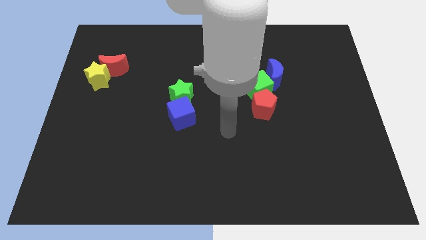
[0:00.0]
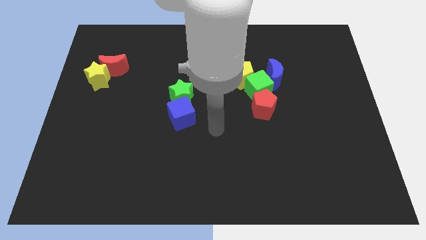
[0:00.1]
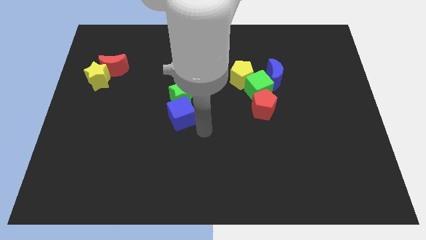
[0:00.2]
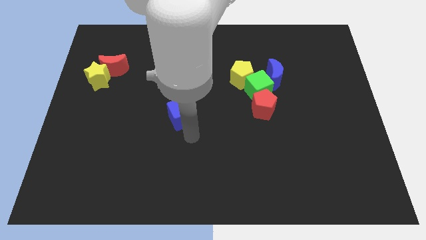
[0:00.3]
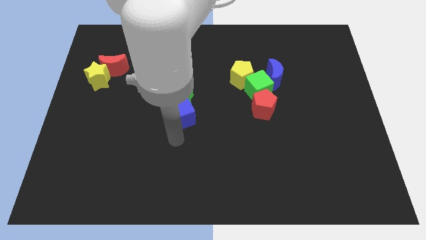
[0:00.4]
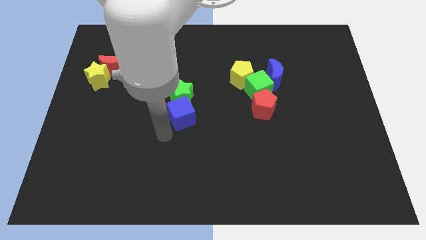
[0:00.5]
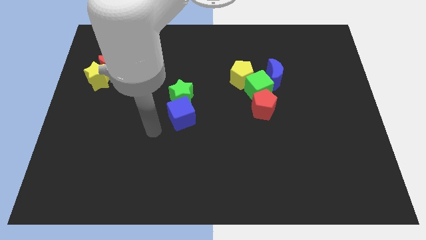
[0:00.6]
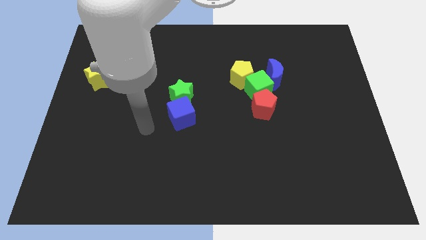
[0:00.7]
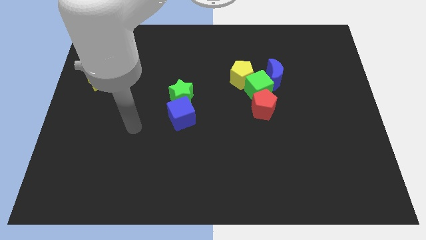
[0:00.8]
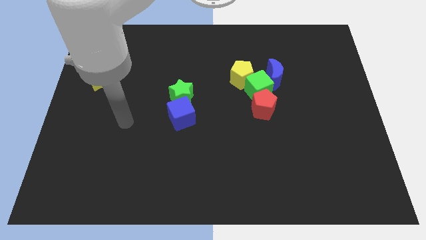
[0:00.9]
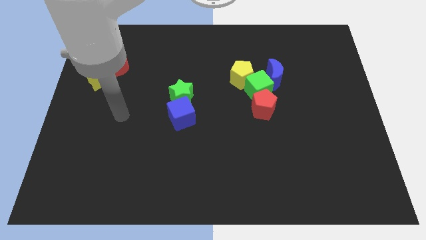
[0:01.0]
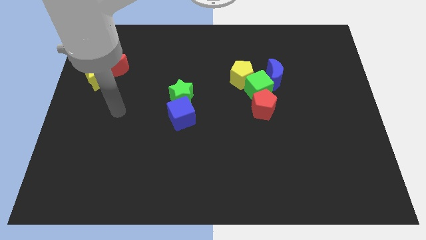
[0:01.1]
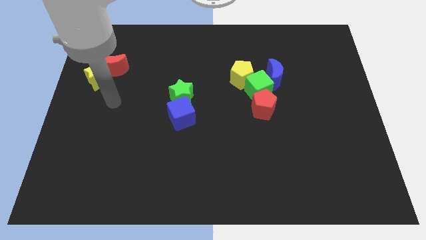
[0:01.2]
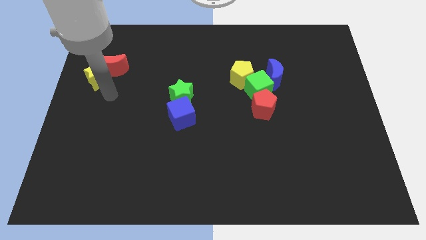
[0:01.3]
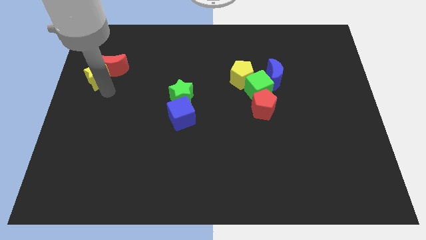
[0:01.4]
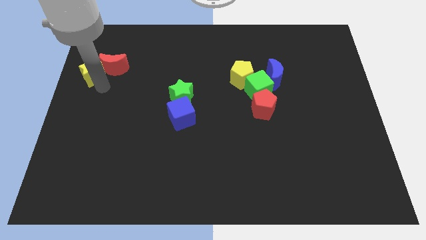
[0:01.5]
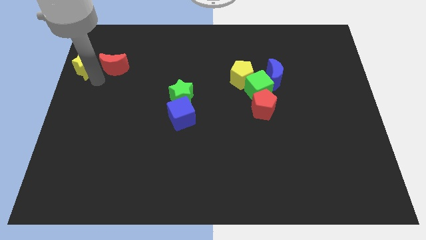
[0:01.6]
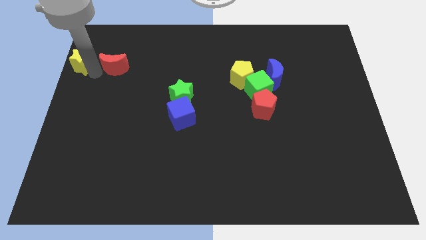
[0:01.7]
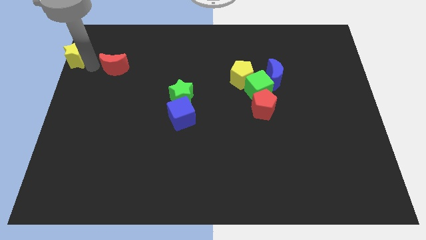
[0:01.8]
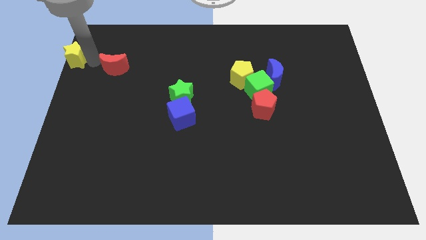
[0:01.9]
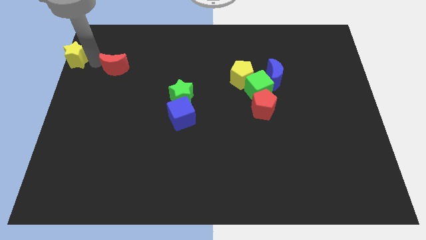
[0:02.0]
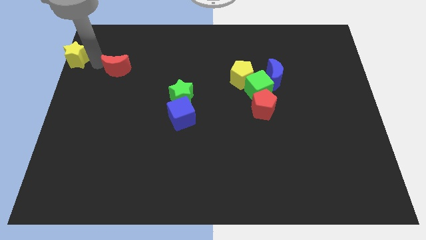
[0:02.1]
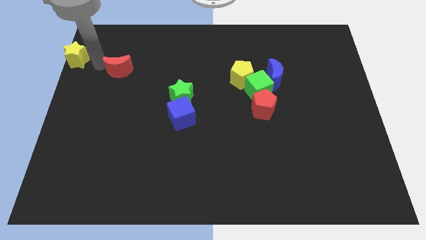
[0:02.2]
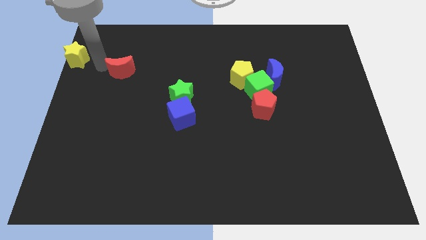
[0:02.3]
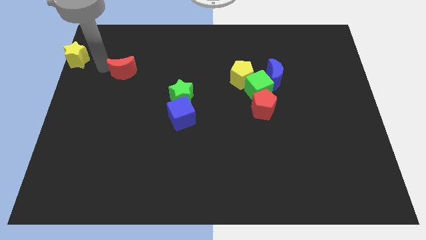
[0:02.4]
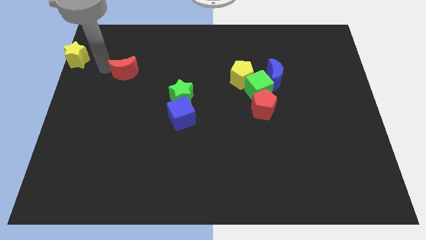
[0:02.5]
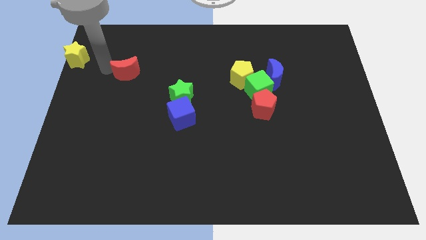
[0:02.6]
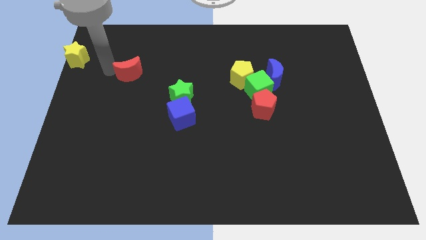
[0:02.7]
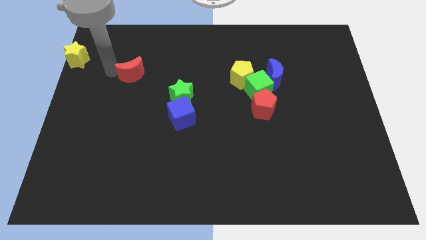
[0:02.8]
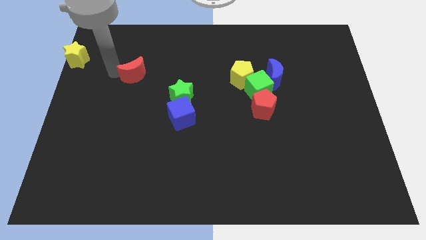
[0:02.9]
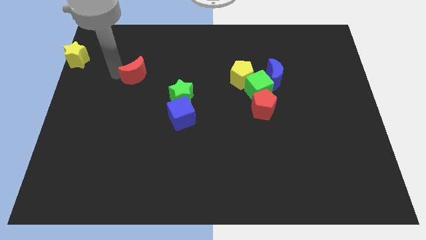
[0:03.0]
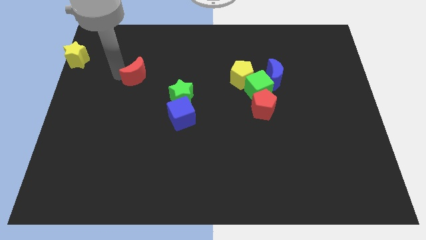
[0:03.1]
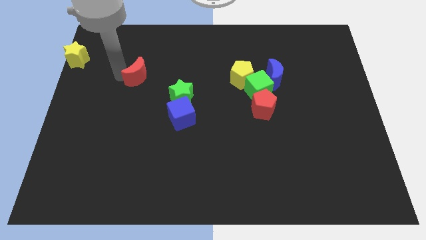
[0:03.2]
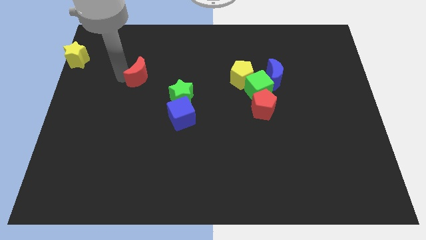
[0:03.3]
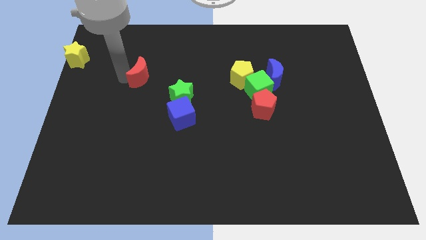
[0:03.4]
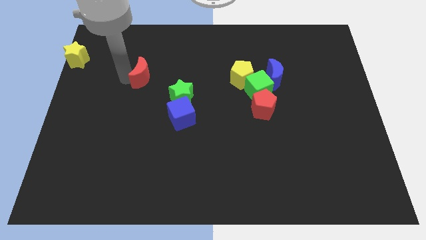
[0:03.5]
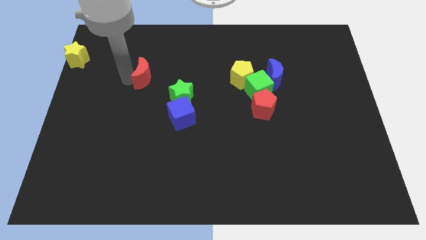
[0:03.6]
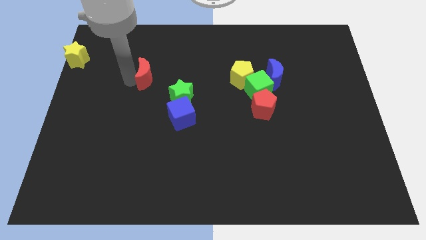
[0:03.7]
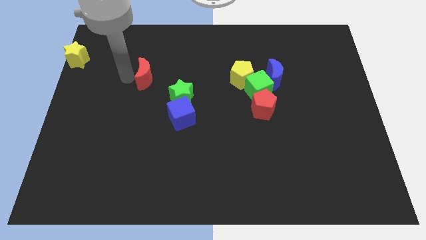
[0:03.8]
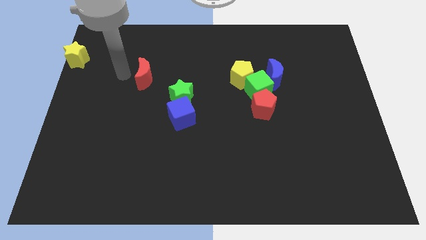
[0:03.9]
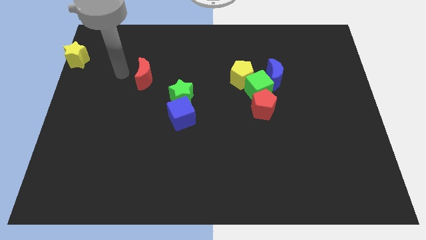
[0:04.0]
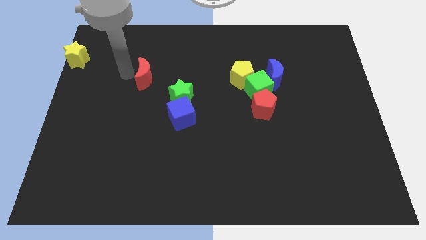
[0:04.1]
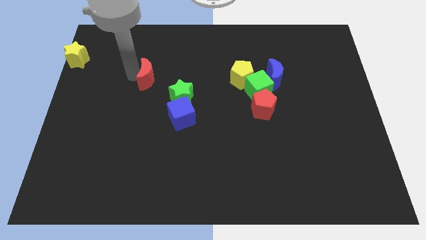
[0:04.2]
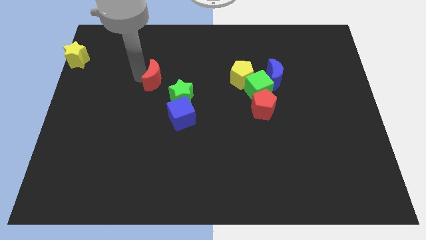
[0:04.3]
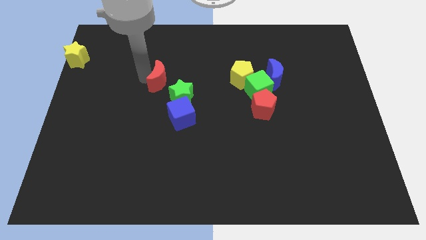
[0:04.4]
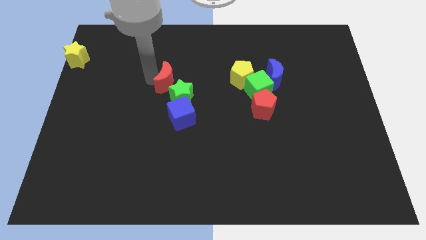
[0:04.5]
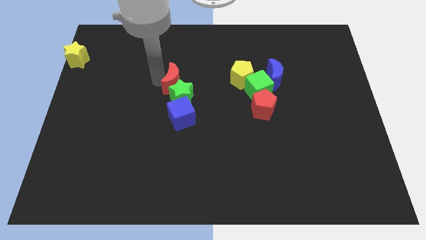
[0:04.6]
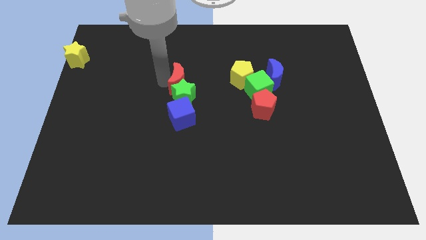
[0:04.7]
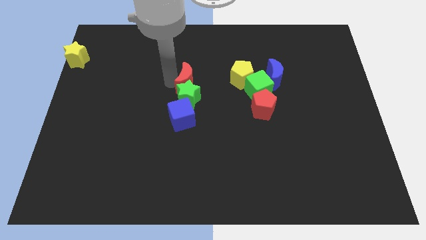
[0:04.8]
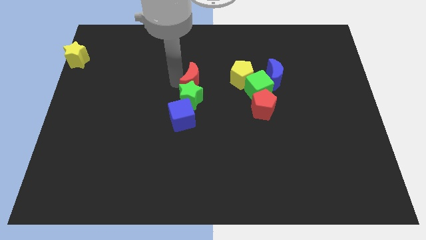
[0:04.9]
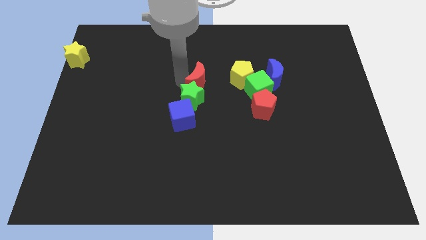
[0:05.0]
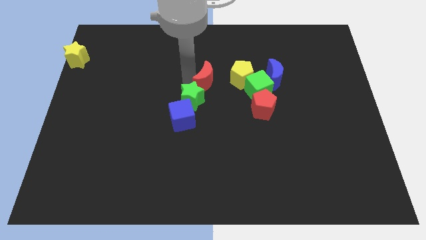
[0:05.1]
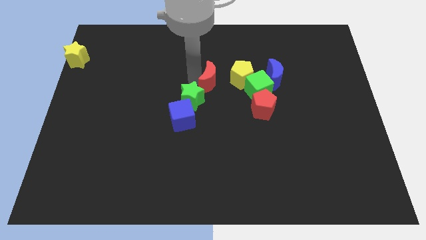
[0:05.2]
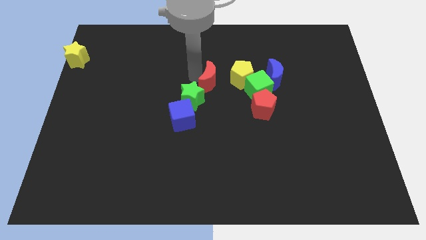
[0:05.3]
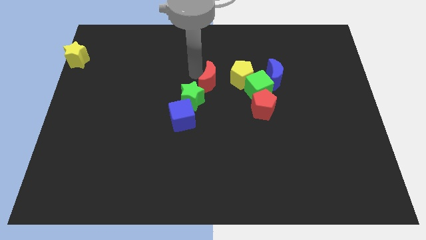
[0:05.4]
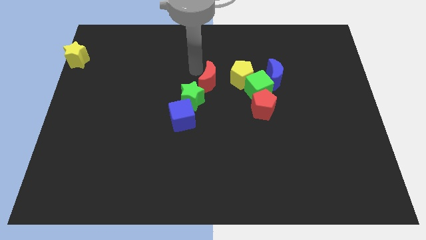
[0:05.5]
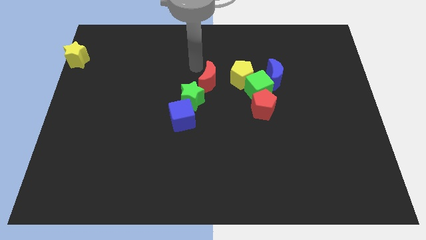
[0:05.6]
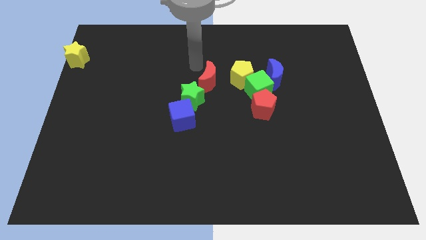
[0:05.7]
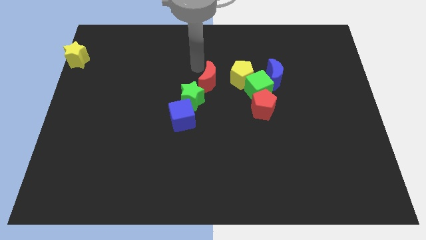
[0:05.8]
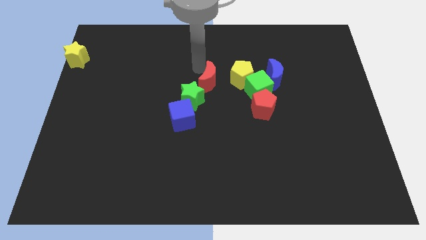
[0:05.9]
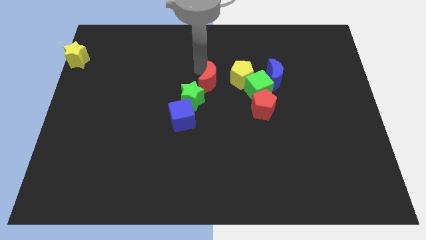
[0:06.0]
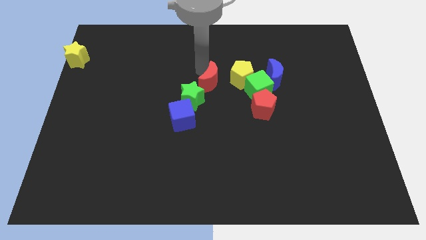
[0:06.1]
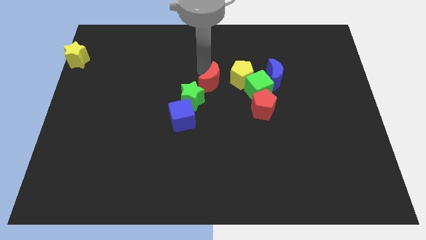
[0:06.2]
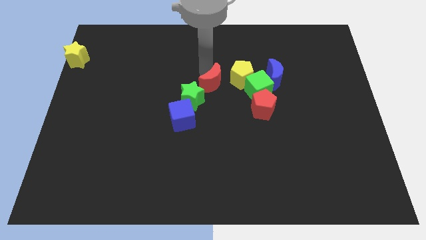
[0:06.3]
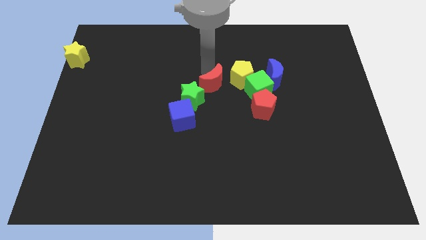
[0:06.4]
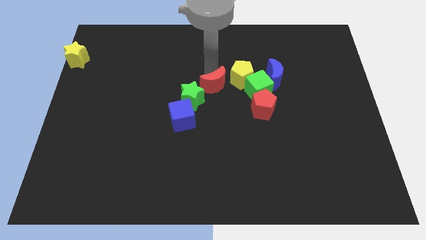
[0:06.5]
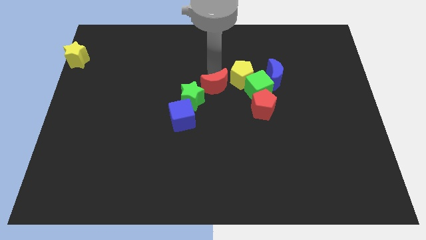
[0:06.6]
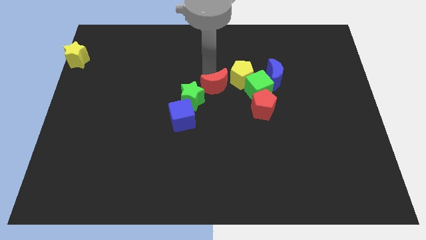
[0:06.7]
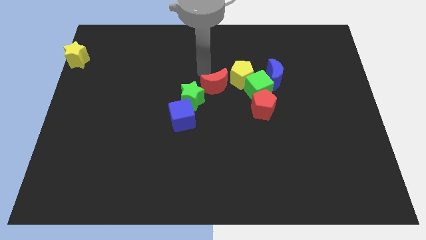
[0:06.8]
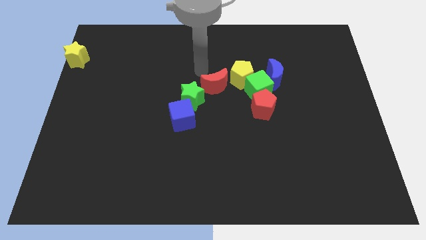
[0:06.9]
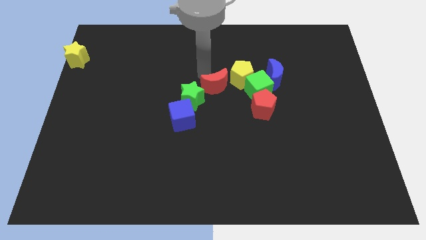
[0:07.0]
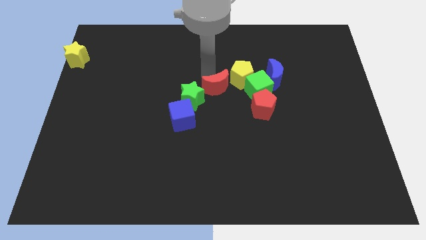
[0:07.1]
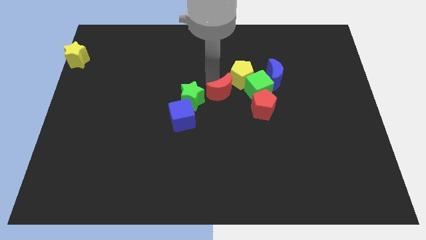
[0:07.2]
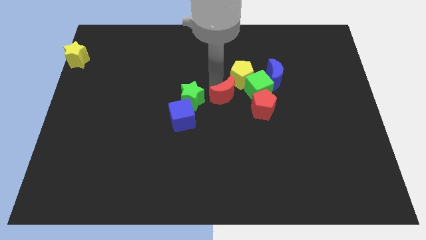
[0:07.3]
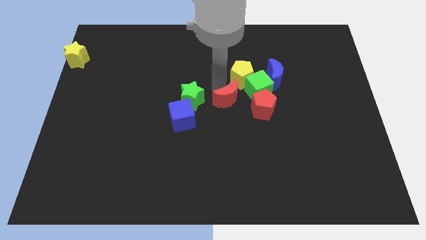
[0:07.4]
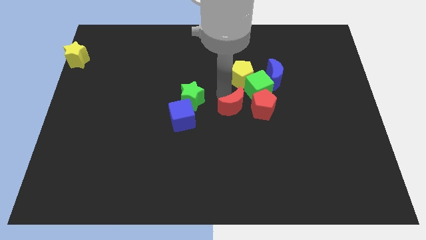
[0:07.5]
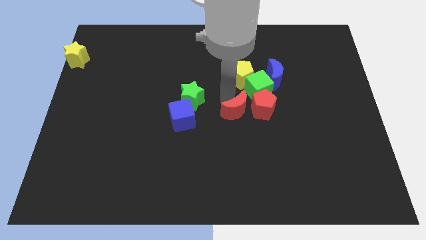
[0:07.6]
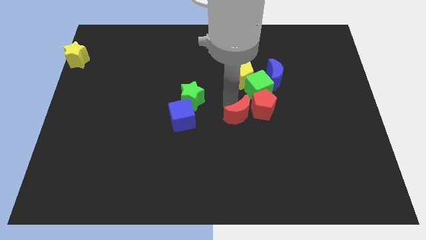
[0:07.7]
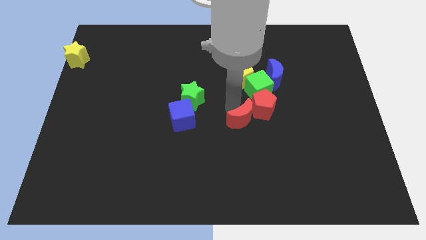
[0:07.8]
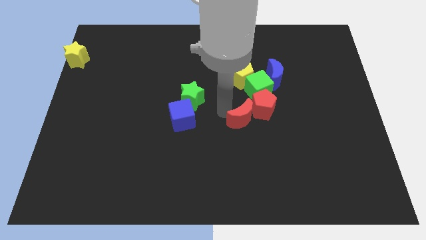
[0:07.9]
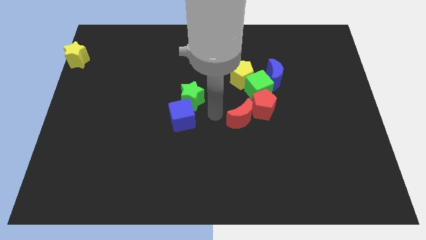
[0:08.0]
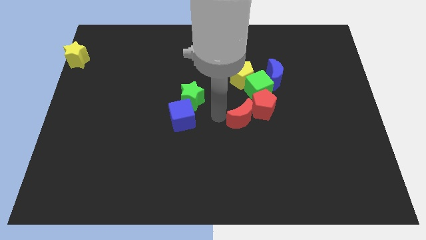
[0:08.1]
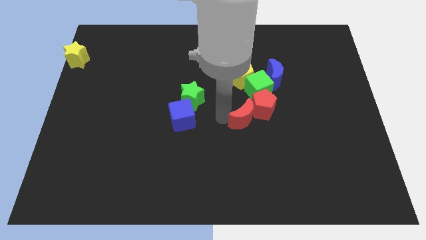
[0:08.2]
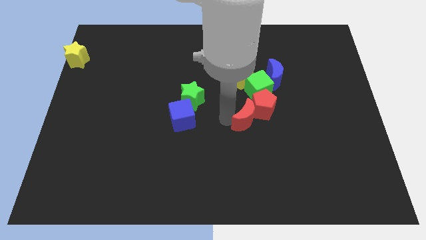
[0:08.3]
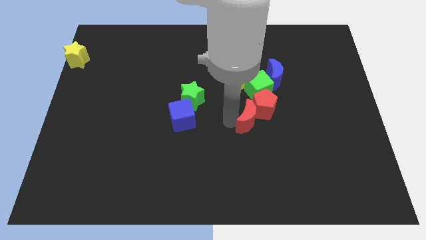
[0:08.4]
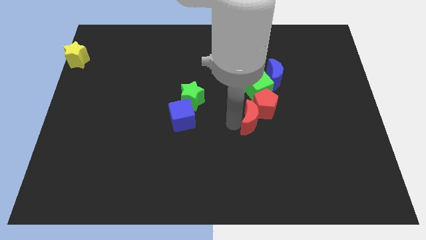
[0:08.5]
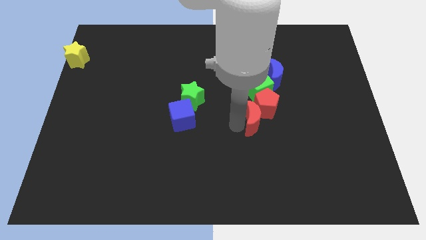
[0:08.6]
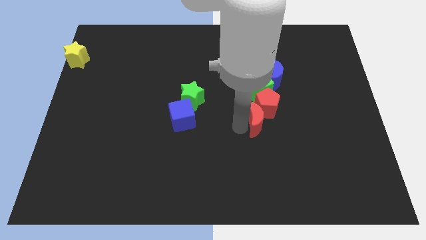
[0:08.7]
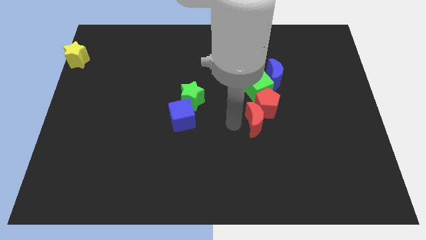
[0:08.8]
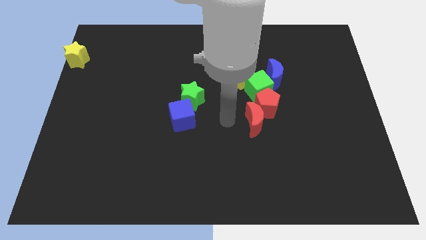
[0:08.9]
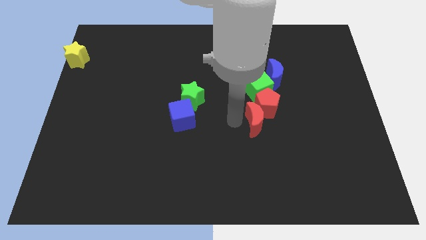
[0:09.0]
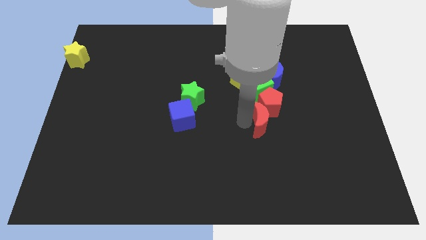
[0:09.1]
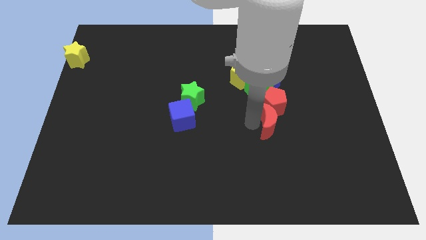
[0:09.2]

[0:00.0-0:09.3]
push the red moon diagonally down and to the right of the red pentagon
